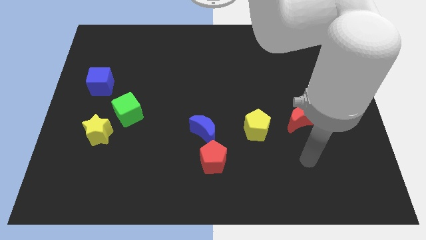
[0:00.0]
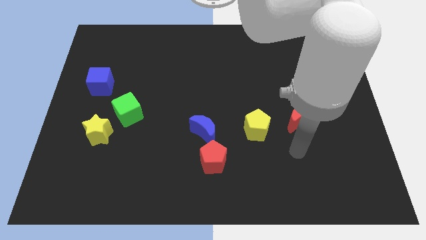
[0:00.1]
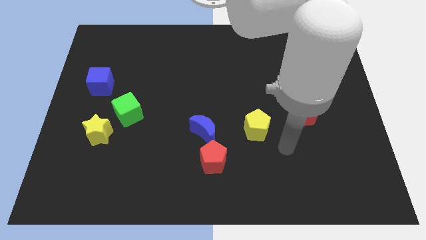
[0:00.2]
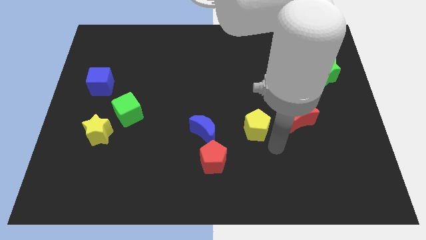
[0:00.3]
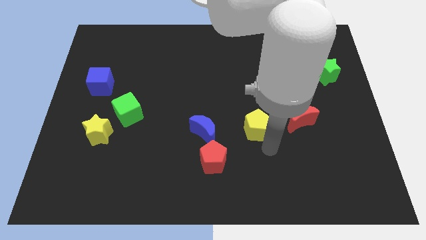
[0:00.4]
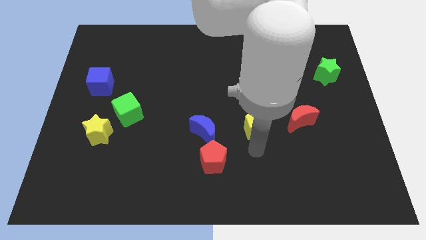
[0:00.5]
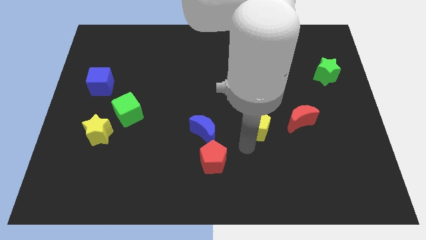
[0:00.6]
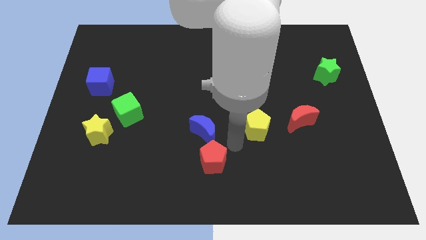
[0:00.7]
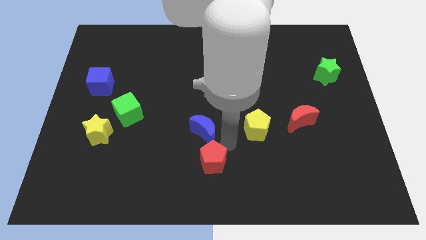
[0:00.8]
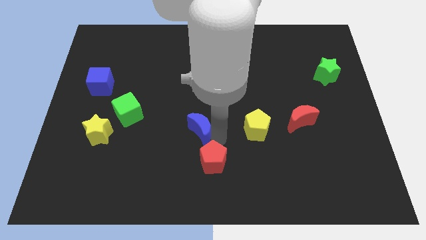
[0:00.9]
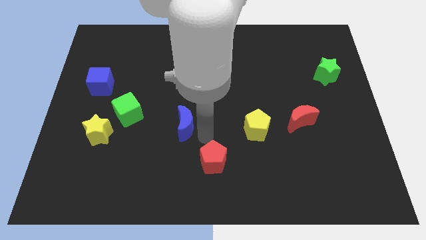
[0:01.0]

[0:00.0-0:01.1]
move the red pentagon away from the blue moon

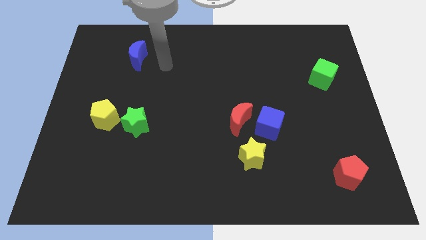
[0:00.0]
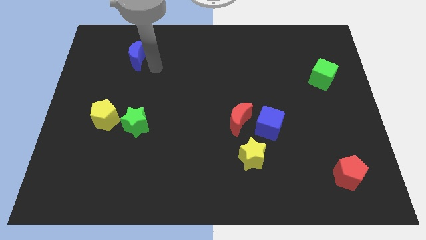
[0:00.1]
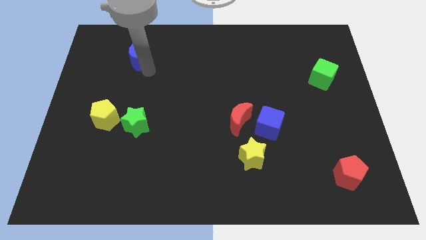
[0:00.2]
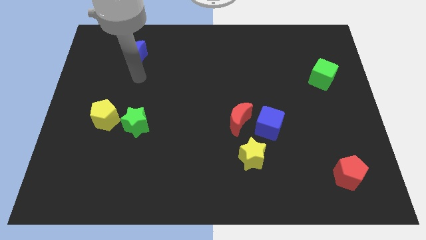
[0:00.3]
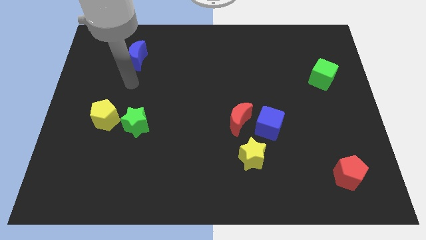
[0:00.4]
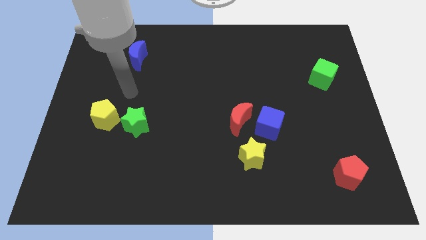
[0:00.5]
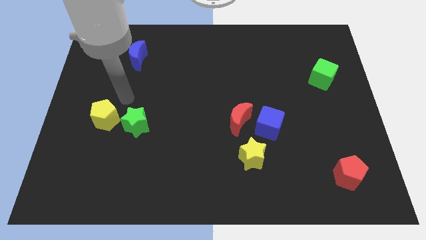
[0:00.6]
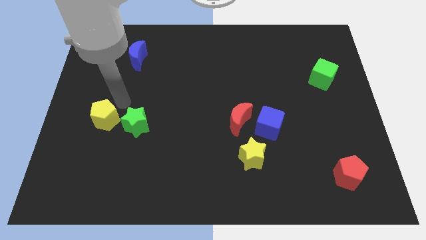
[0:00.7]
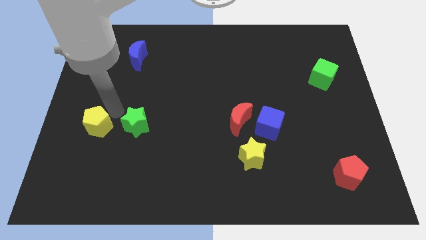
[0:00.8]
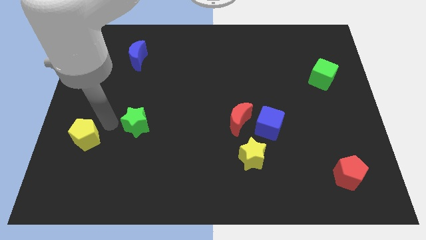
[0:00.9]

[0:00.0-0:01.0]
separate the green star from the yellow pentagon

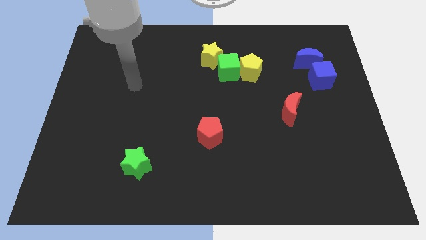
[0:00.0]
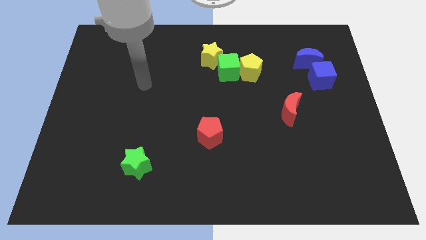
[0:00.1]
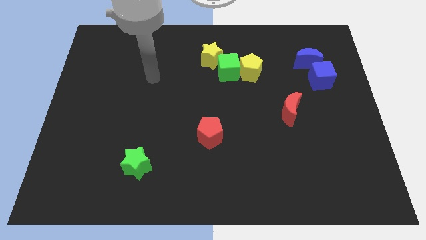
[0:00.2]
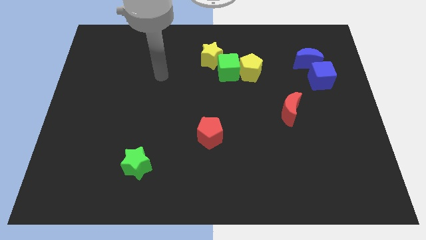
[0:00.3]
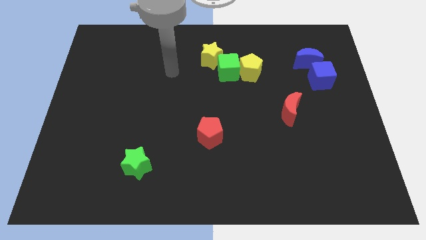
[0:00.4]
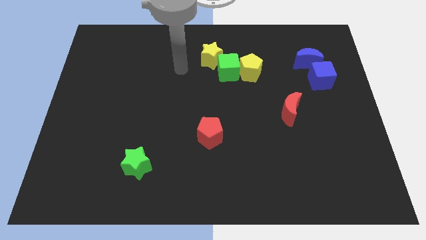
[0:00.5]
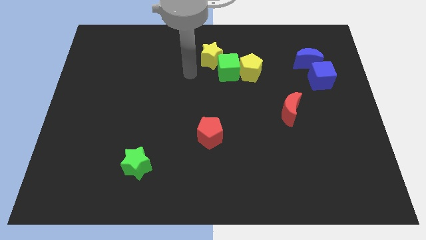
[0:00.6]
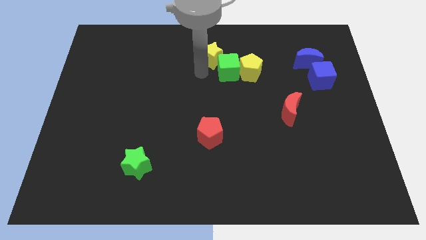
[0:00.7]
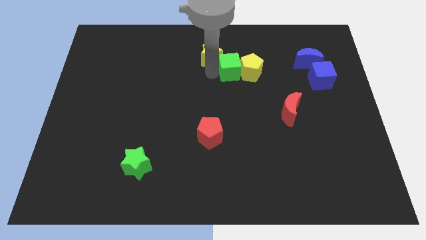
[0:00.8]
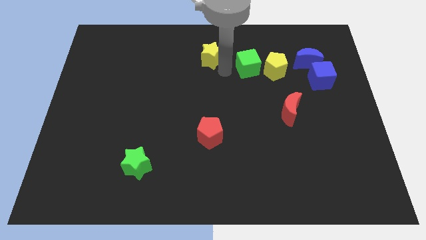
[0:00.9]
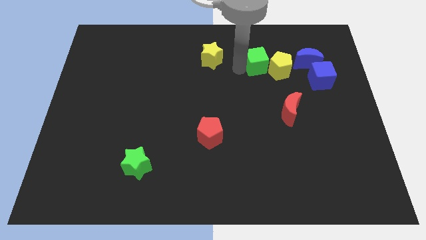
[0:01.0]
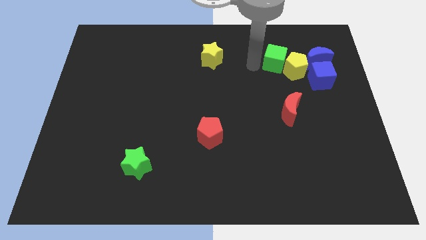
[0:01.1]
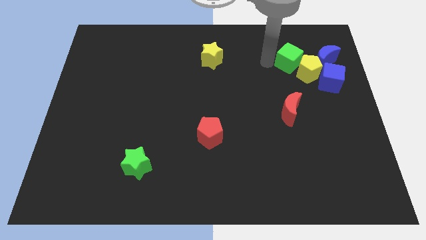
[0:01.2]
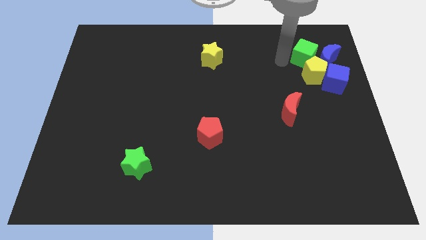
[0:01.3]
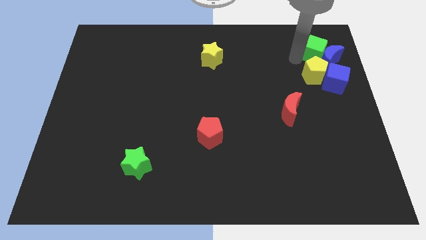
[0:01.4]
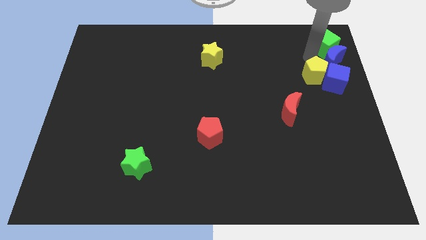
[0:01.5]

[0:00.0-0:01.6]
separate the yellow pentagon from the green cube

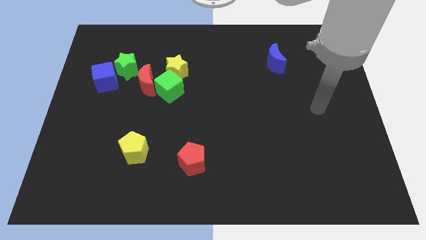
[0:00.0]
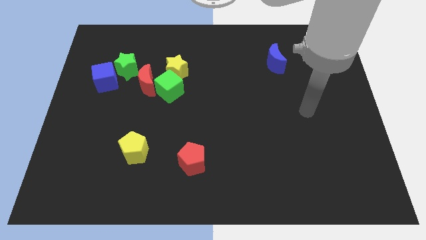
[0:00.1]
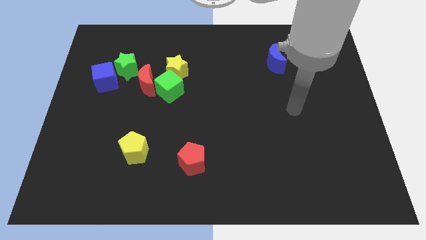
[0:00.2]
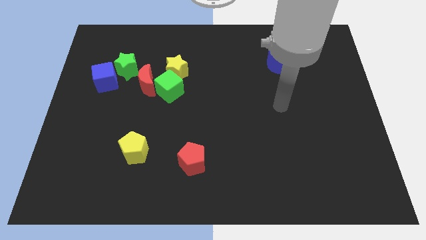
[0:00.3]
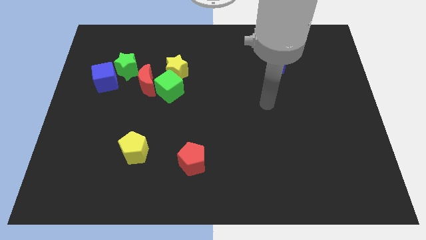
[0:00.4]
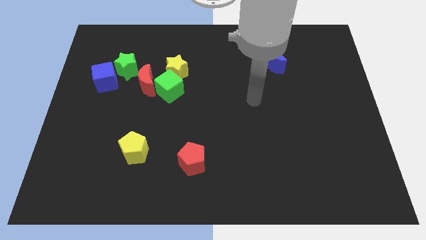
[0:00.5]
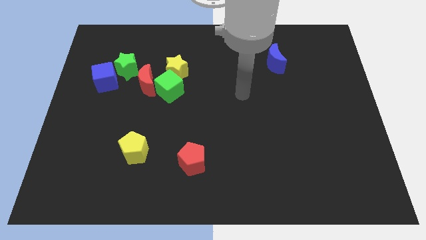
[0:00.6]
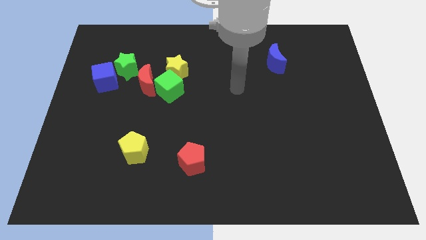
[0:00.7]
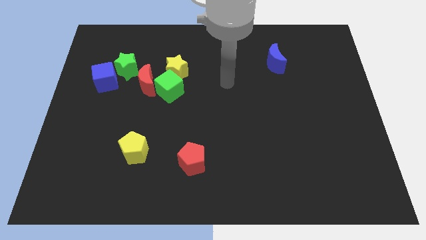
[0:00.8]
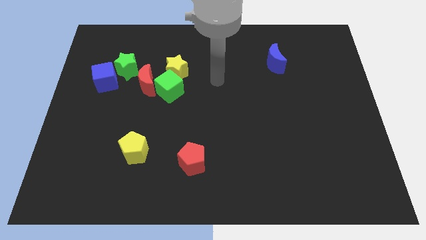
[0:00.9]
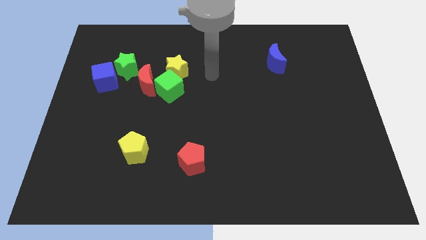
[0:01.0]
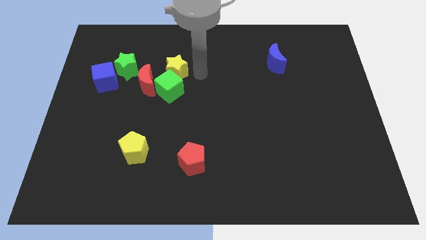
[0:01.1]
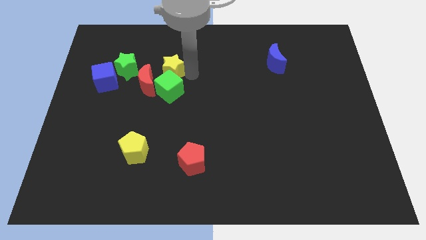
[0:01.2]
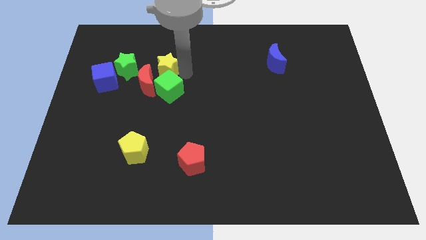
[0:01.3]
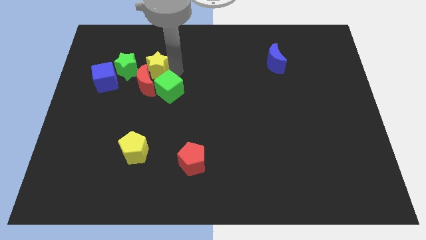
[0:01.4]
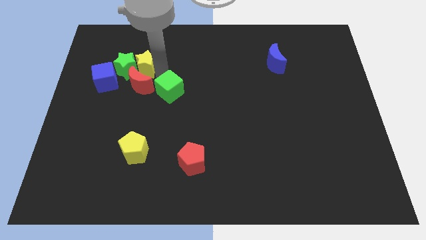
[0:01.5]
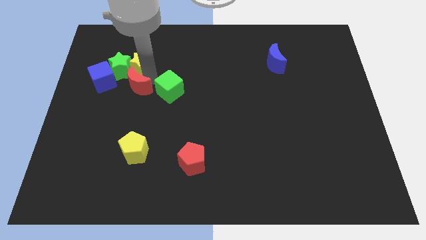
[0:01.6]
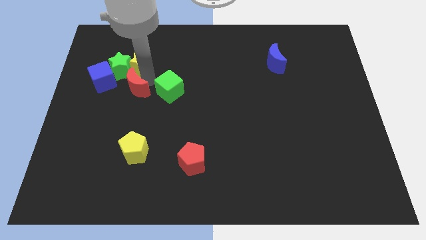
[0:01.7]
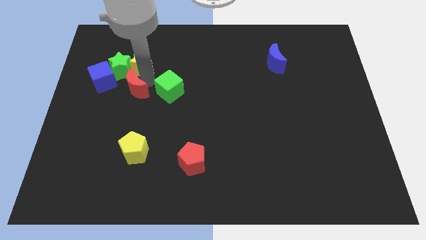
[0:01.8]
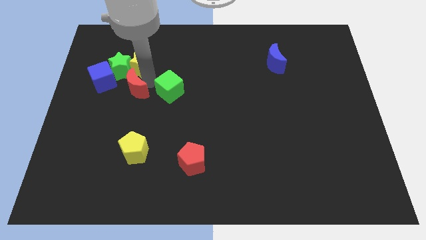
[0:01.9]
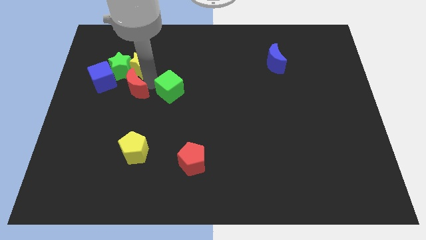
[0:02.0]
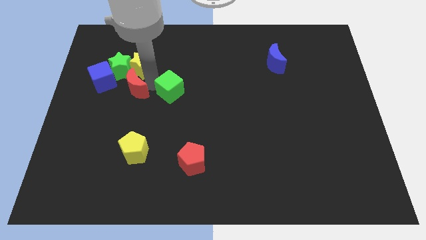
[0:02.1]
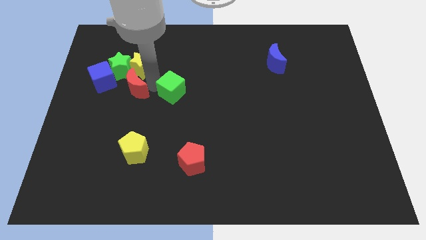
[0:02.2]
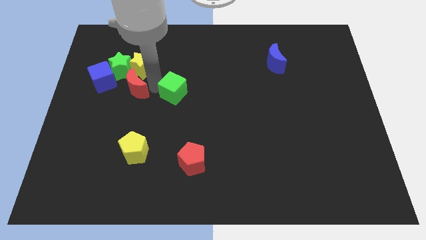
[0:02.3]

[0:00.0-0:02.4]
pull the green cube apart from the yellow star and red moon

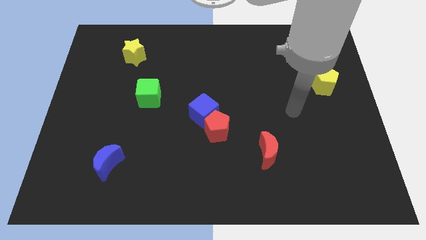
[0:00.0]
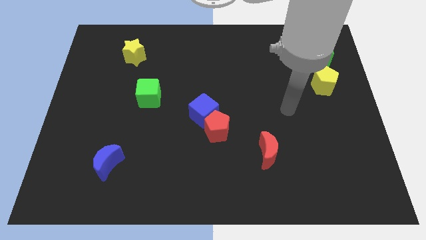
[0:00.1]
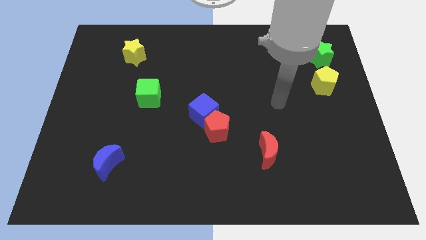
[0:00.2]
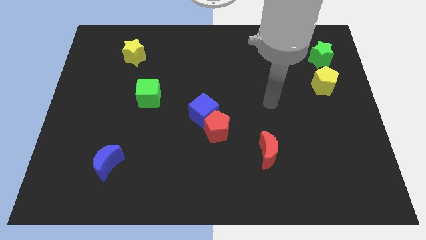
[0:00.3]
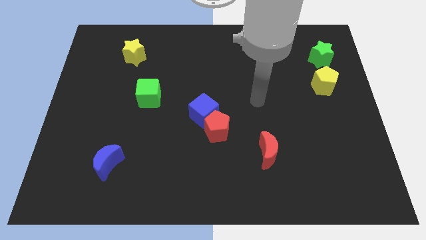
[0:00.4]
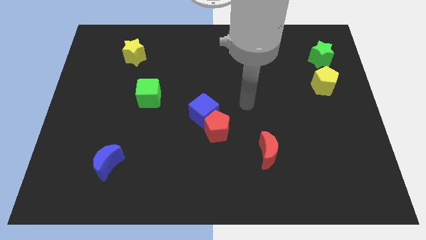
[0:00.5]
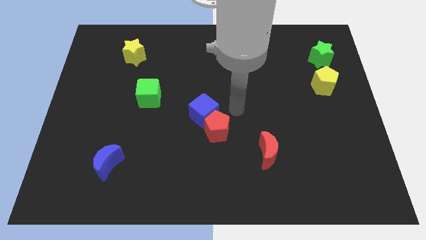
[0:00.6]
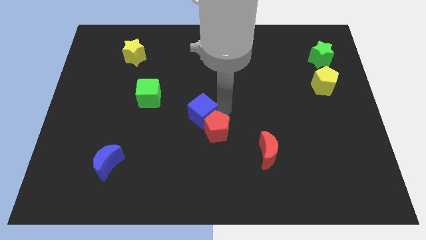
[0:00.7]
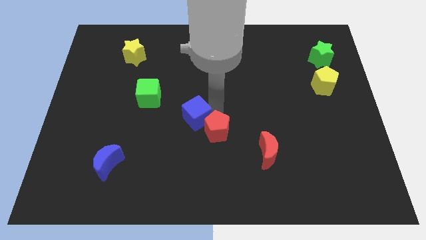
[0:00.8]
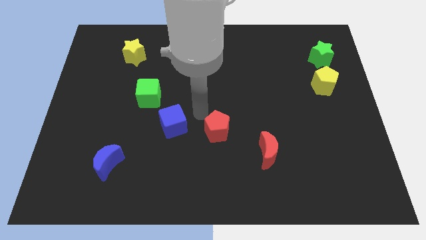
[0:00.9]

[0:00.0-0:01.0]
pull the red pentagon apart from the blue cube

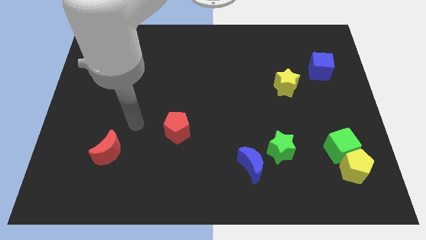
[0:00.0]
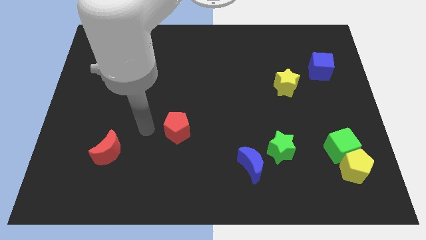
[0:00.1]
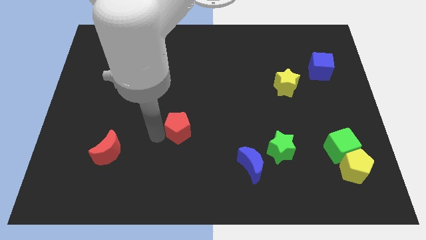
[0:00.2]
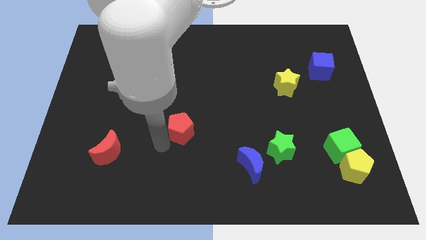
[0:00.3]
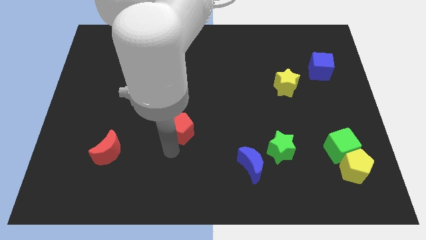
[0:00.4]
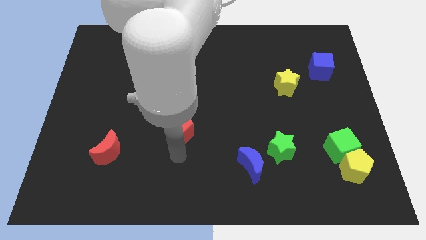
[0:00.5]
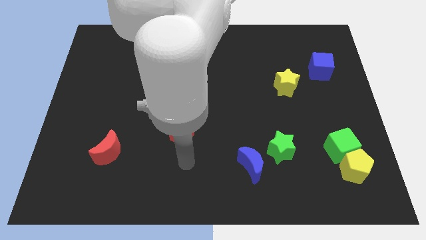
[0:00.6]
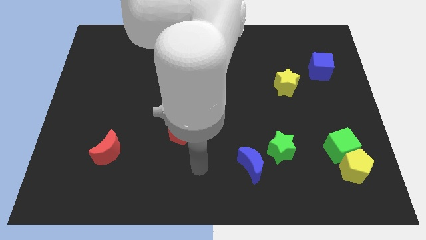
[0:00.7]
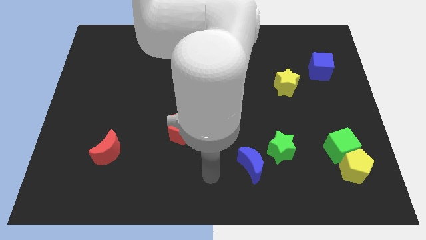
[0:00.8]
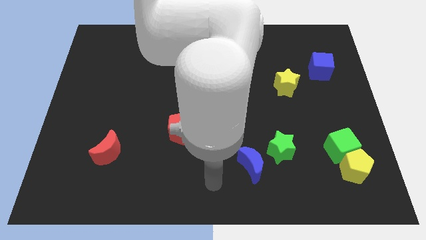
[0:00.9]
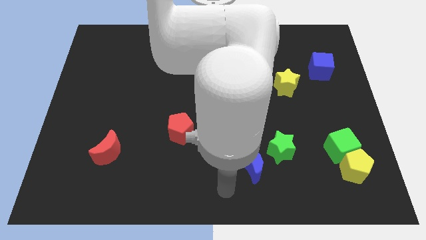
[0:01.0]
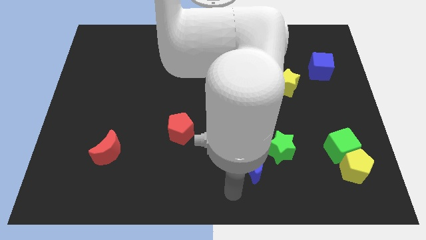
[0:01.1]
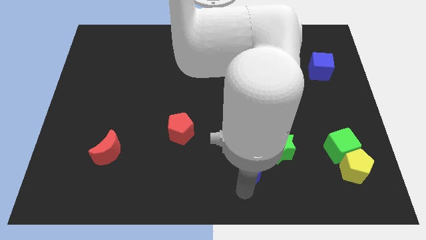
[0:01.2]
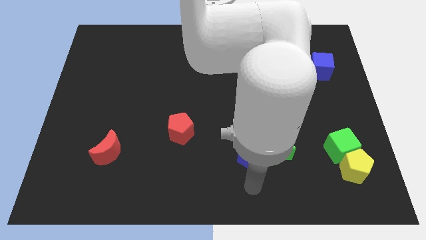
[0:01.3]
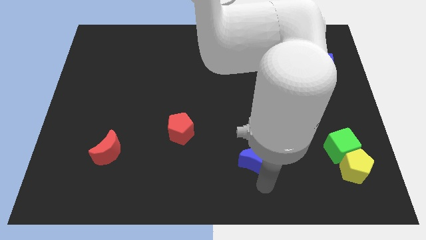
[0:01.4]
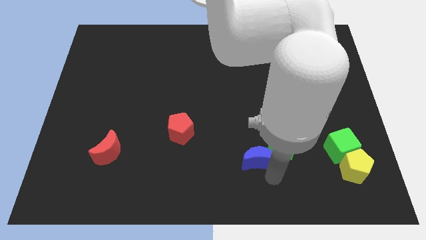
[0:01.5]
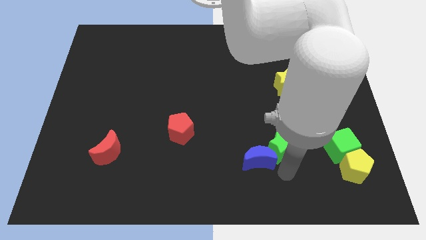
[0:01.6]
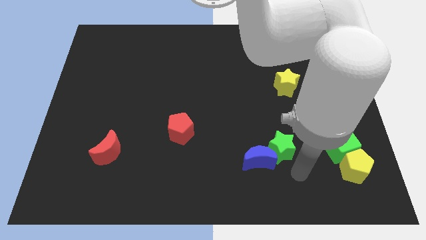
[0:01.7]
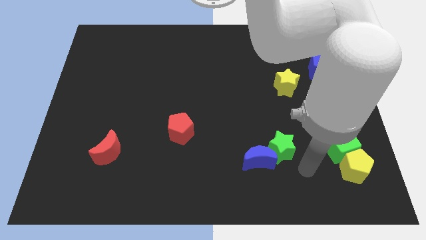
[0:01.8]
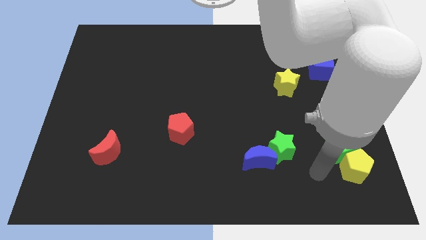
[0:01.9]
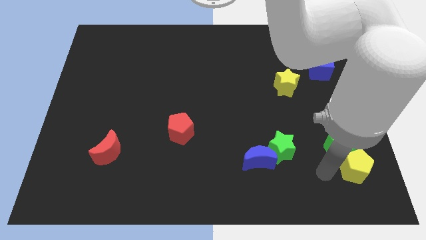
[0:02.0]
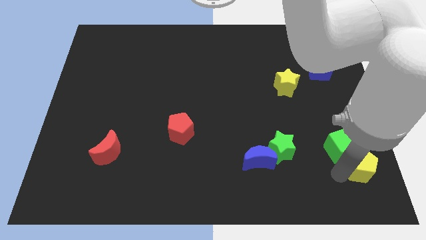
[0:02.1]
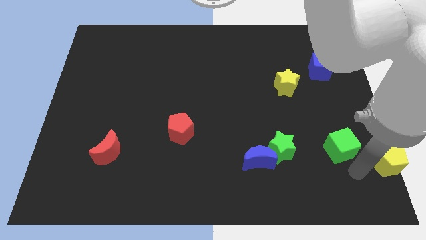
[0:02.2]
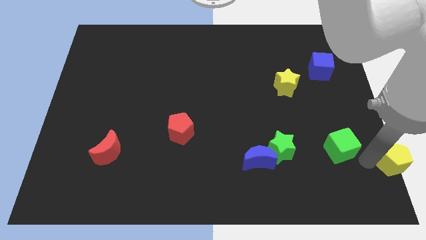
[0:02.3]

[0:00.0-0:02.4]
move the green cube away from the yellow pentagon
